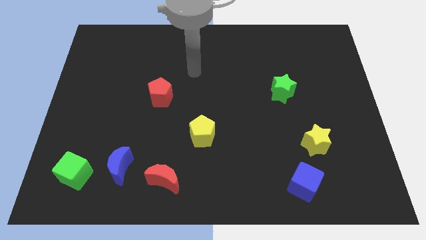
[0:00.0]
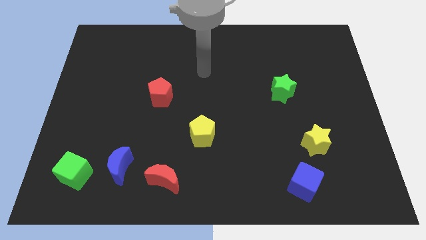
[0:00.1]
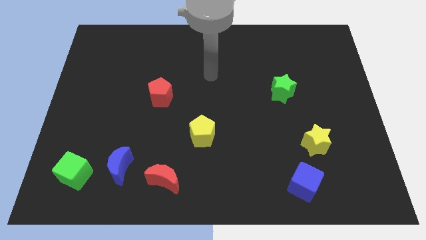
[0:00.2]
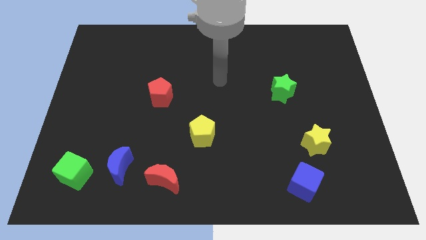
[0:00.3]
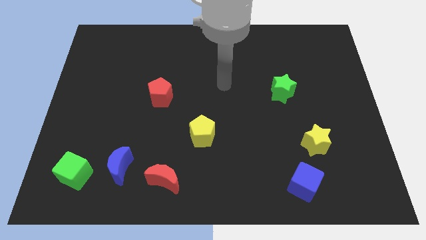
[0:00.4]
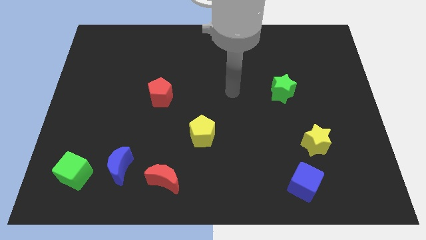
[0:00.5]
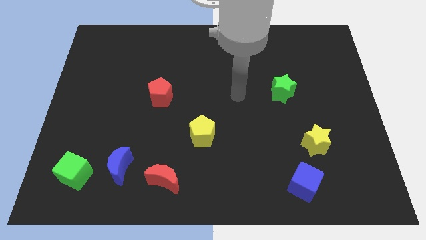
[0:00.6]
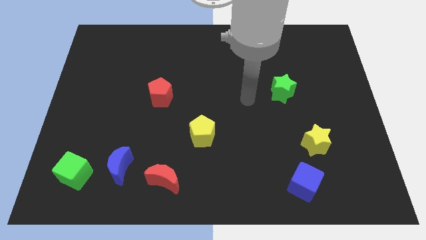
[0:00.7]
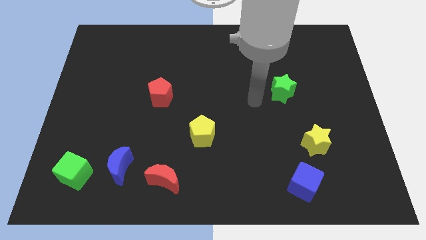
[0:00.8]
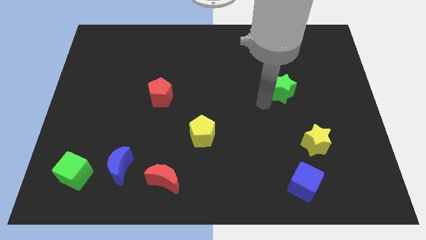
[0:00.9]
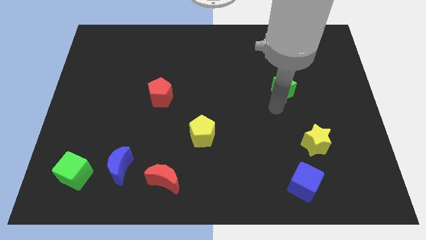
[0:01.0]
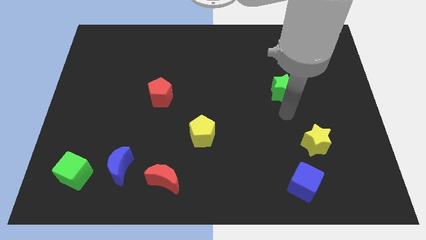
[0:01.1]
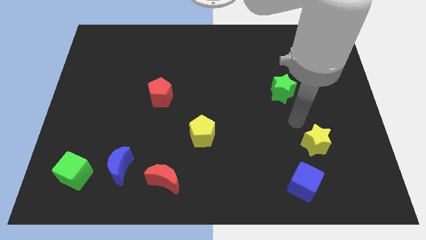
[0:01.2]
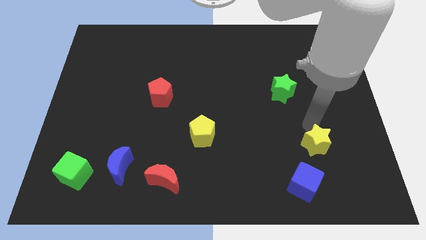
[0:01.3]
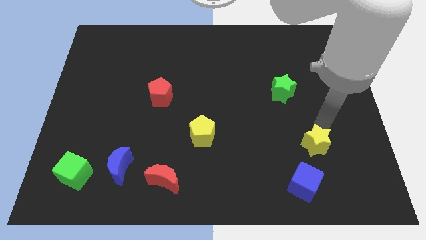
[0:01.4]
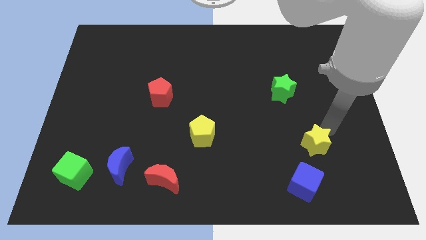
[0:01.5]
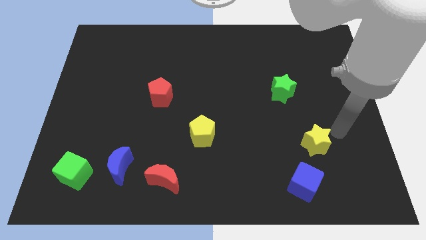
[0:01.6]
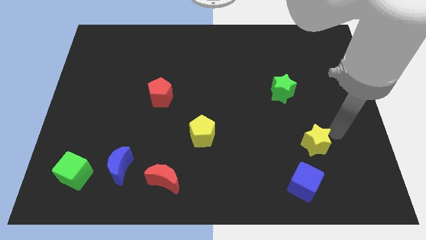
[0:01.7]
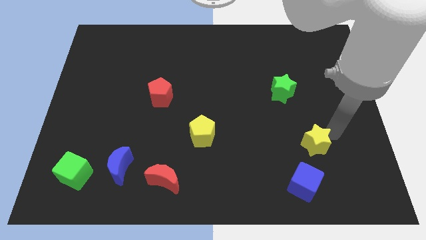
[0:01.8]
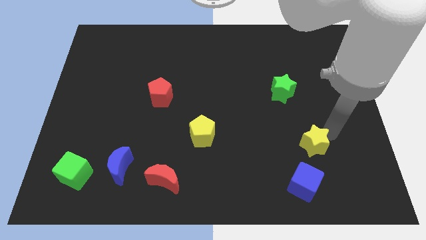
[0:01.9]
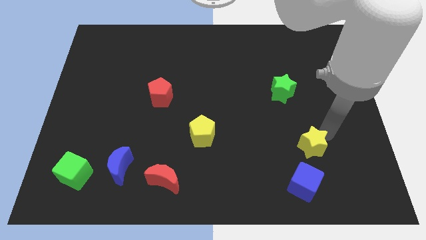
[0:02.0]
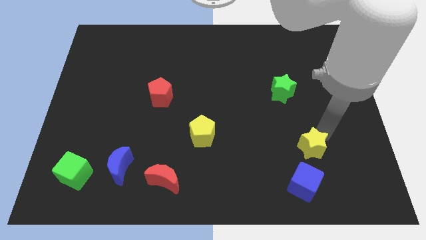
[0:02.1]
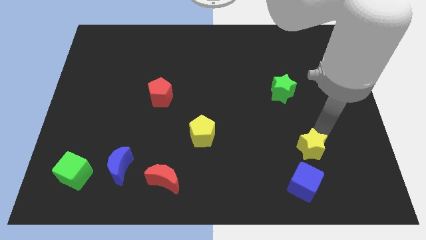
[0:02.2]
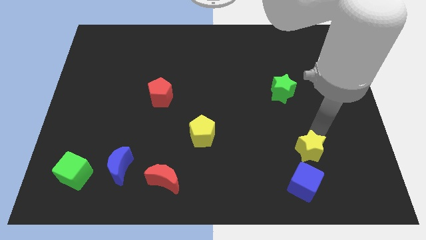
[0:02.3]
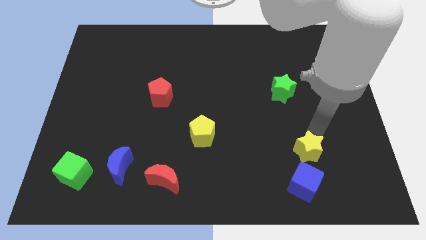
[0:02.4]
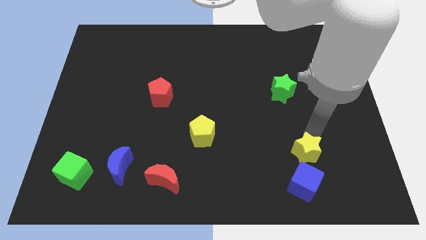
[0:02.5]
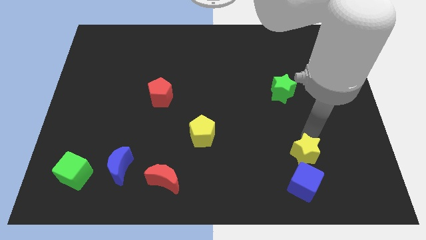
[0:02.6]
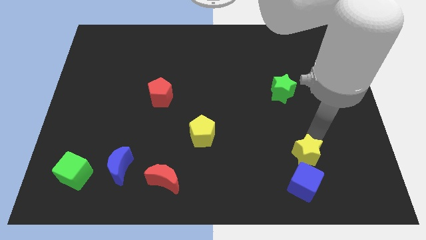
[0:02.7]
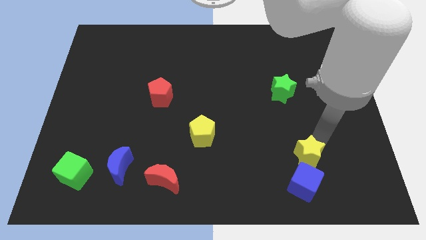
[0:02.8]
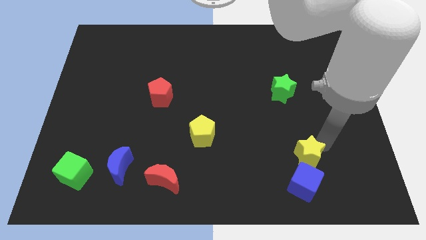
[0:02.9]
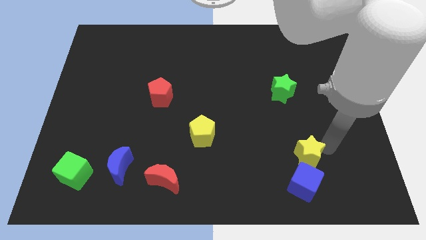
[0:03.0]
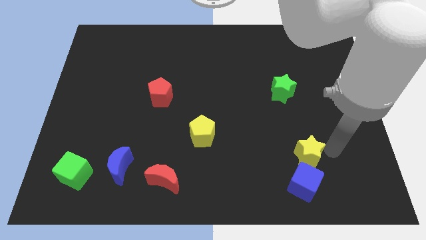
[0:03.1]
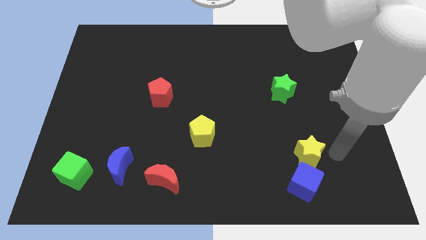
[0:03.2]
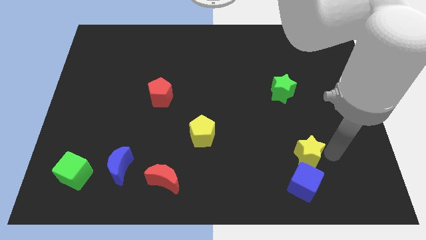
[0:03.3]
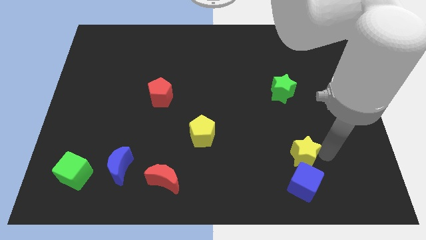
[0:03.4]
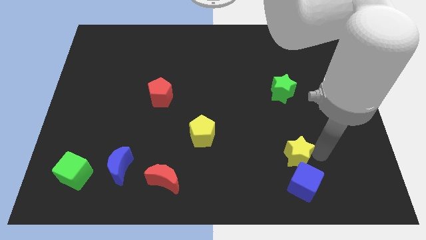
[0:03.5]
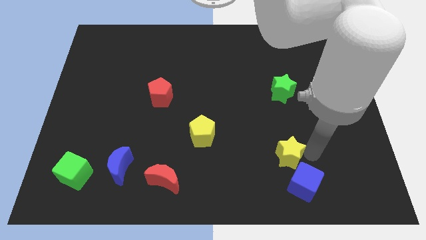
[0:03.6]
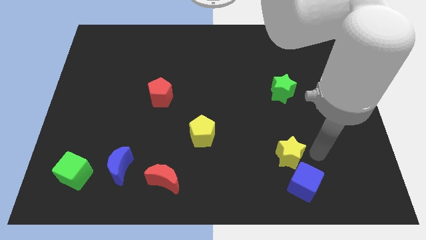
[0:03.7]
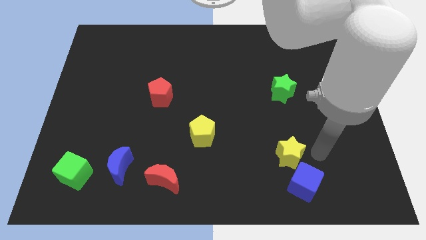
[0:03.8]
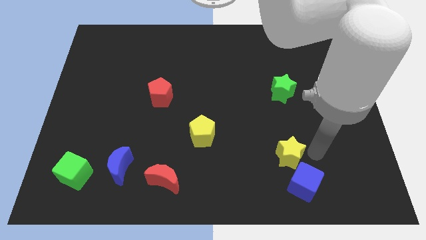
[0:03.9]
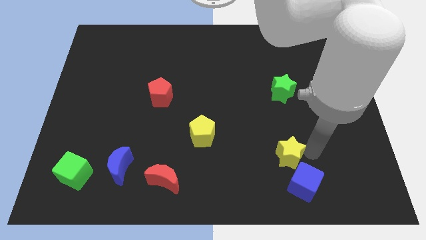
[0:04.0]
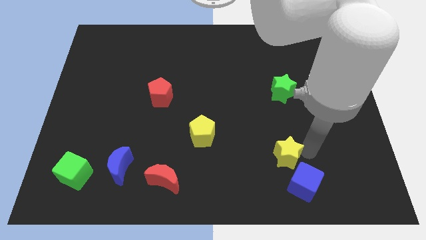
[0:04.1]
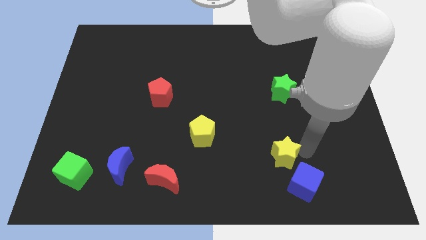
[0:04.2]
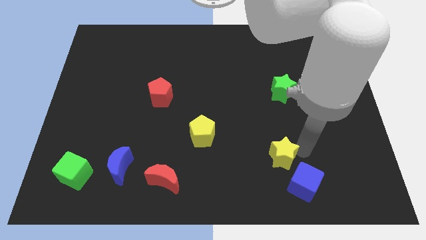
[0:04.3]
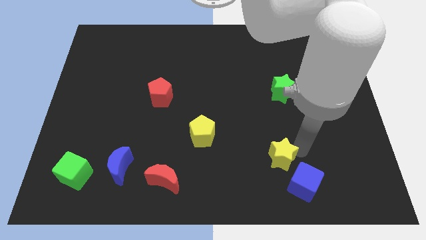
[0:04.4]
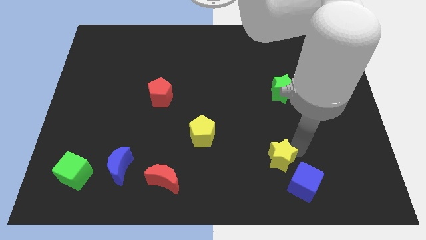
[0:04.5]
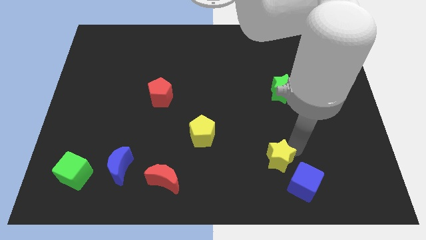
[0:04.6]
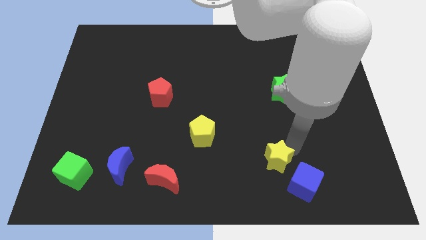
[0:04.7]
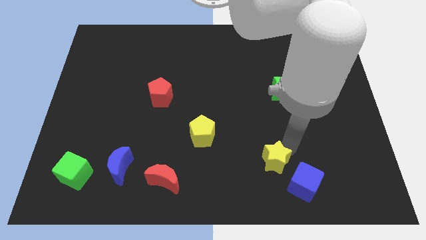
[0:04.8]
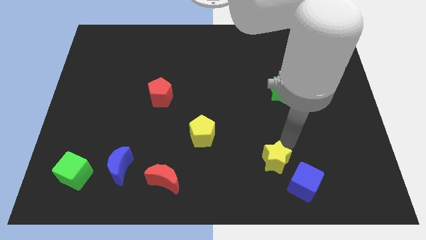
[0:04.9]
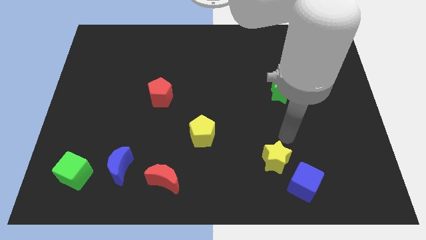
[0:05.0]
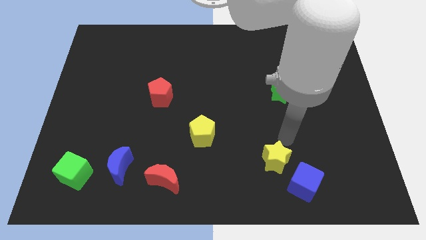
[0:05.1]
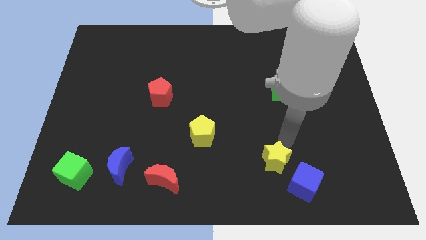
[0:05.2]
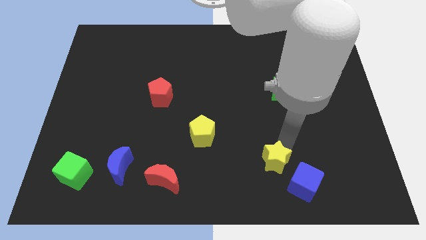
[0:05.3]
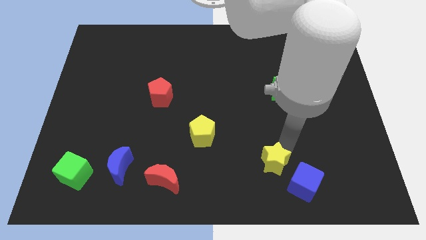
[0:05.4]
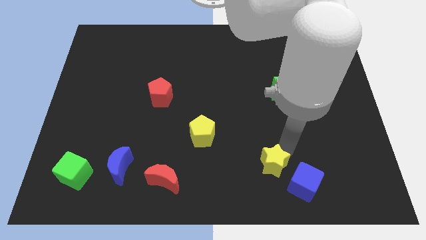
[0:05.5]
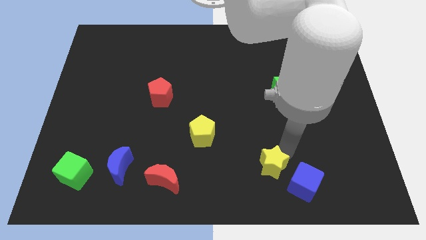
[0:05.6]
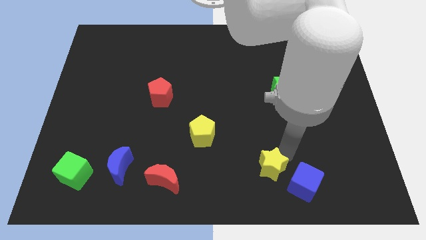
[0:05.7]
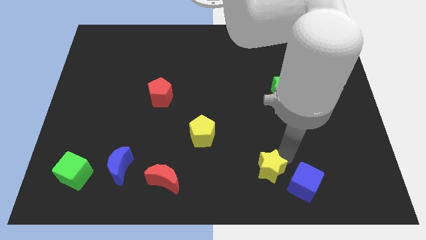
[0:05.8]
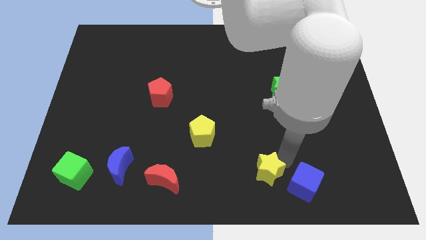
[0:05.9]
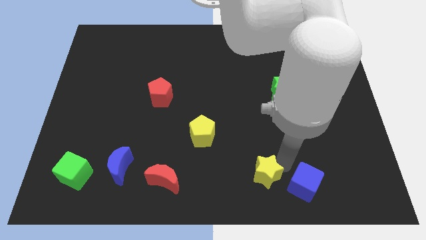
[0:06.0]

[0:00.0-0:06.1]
move the yellow star to the bottom side

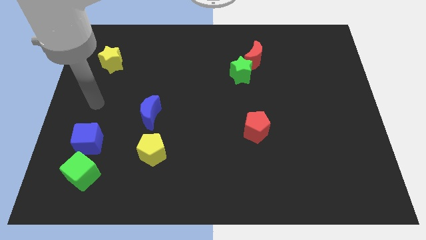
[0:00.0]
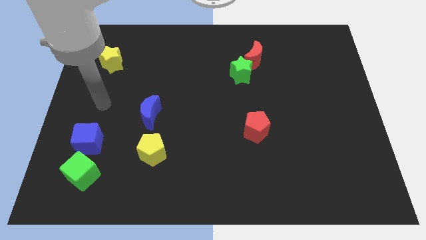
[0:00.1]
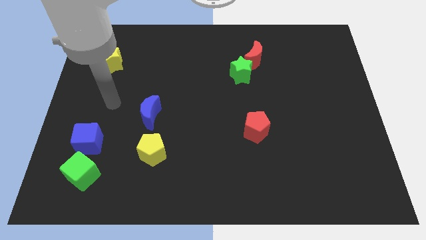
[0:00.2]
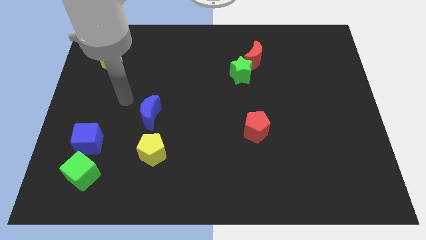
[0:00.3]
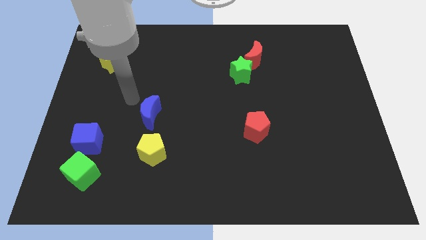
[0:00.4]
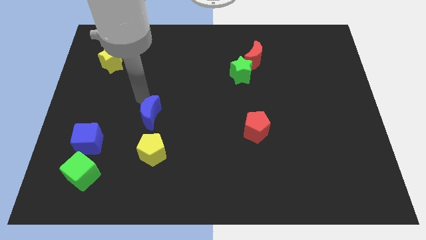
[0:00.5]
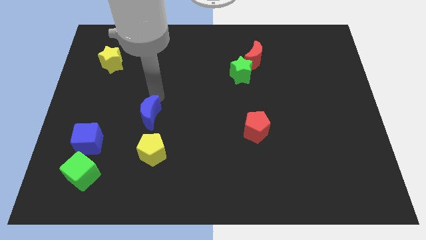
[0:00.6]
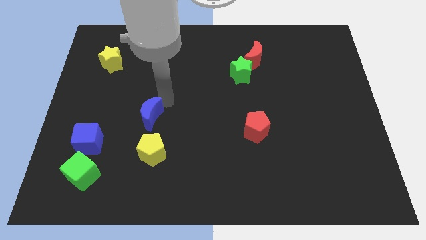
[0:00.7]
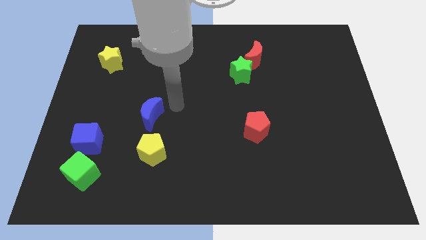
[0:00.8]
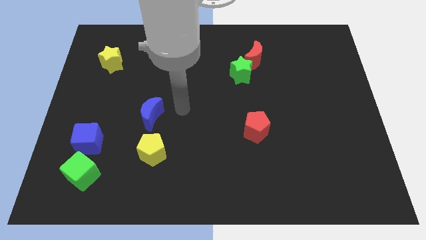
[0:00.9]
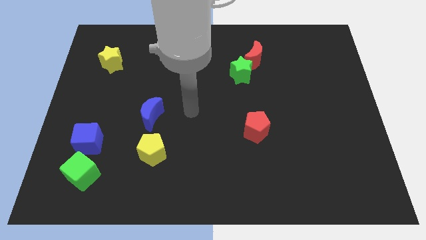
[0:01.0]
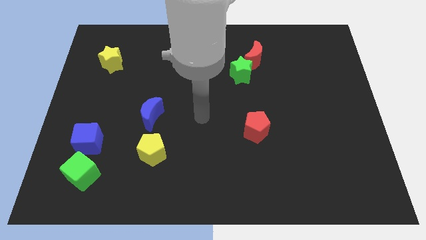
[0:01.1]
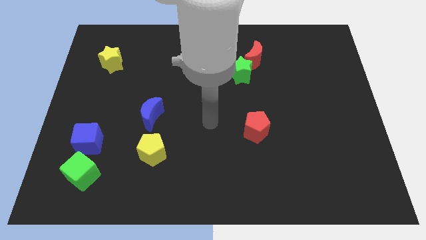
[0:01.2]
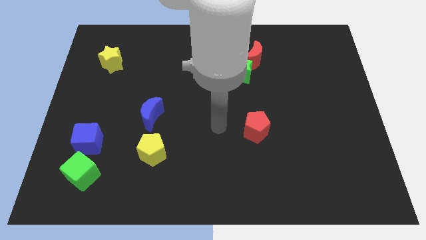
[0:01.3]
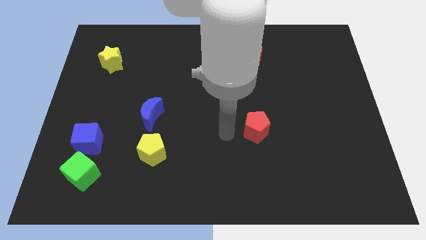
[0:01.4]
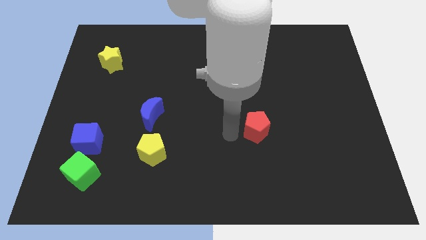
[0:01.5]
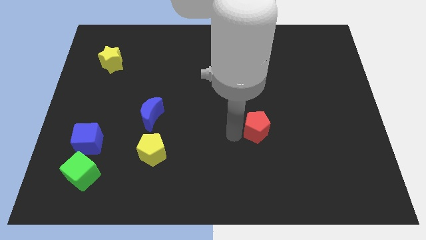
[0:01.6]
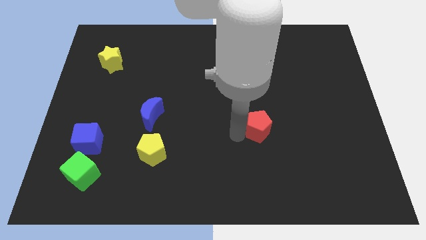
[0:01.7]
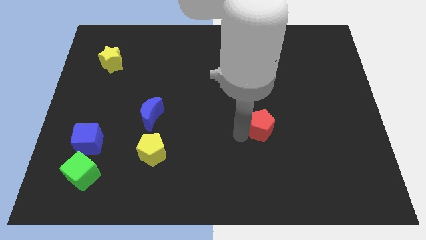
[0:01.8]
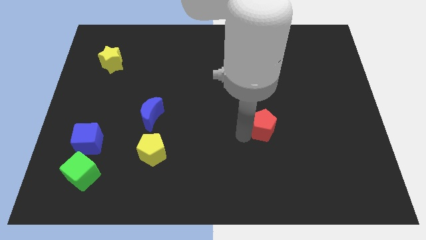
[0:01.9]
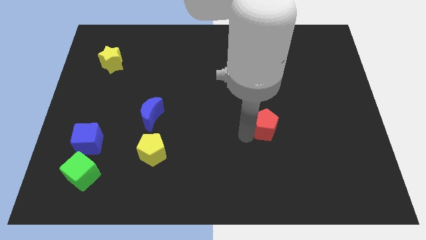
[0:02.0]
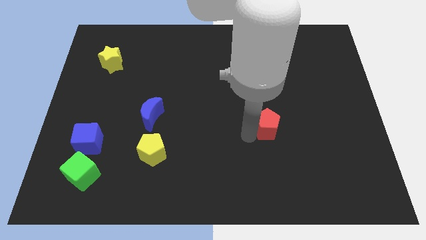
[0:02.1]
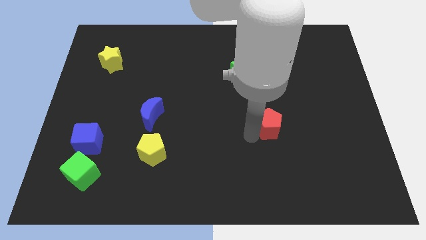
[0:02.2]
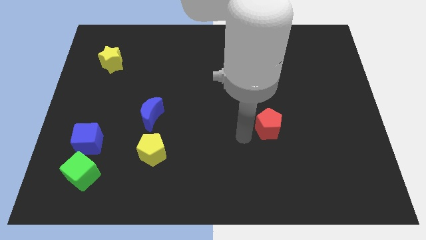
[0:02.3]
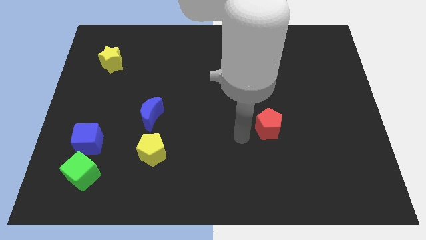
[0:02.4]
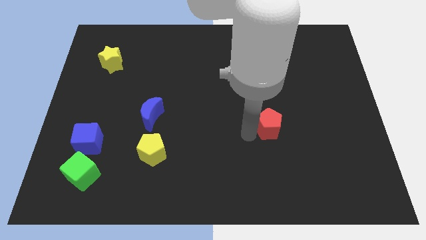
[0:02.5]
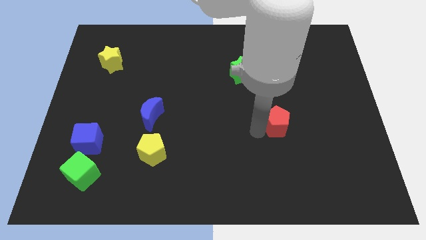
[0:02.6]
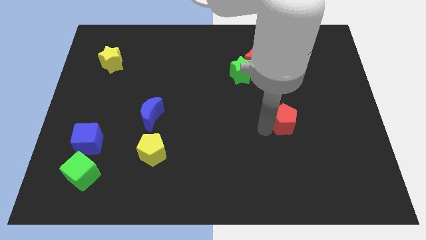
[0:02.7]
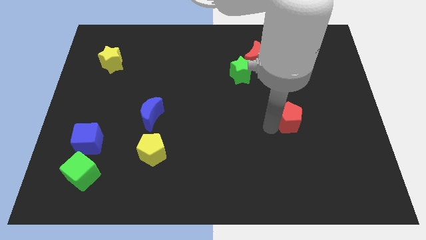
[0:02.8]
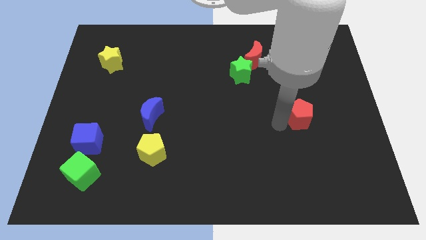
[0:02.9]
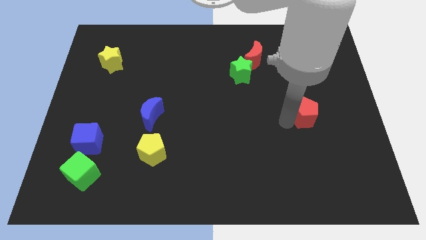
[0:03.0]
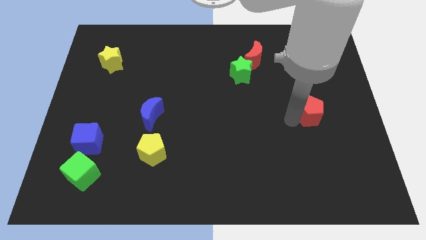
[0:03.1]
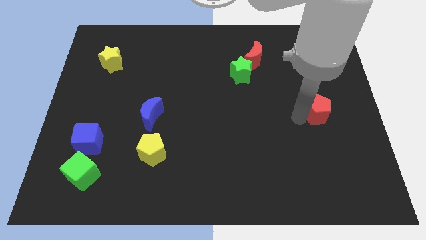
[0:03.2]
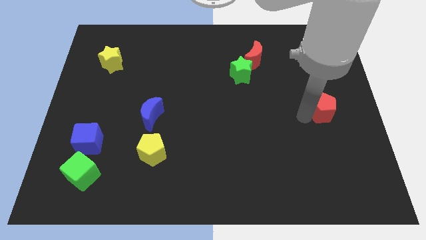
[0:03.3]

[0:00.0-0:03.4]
move the red pentagon to the right side of the board
